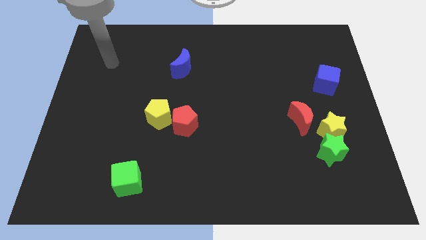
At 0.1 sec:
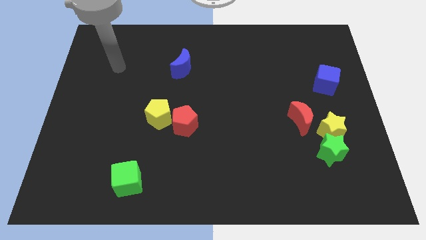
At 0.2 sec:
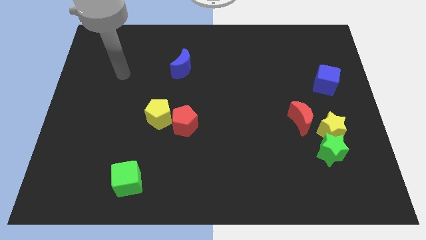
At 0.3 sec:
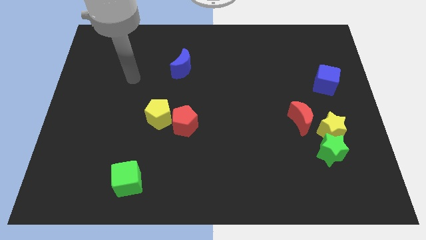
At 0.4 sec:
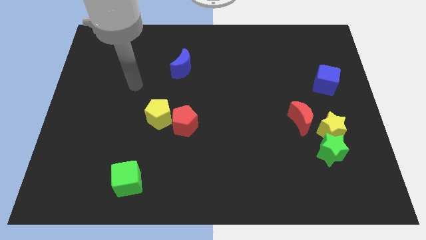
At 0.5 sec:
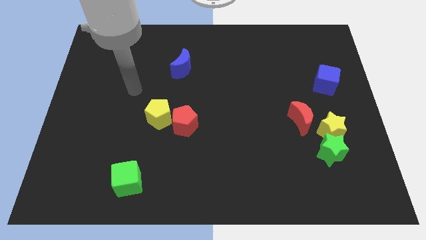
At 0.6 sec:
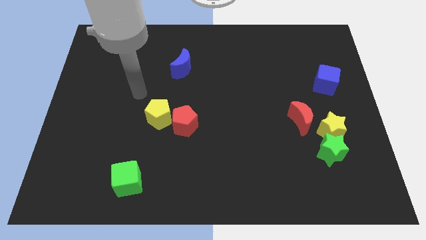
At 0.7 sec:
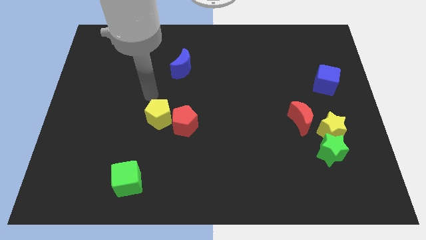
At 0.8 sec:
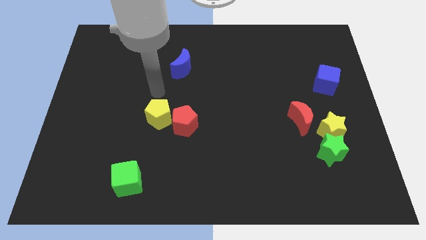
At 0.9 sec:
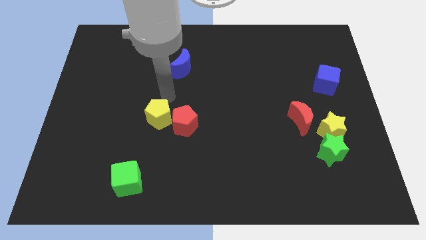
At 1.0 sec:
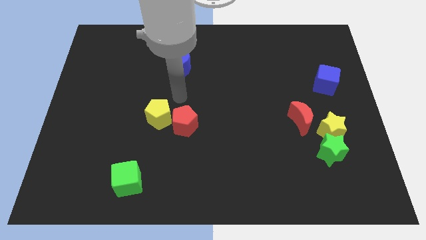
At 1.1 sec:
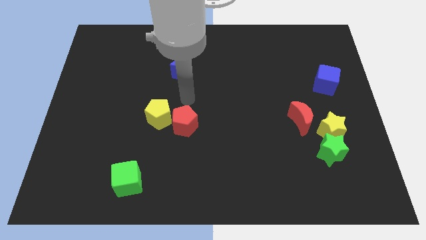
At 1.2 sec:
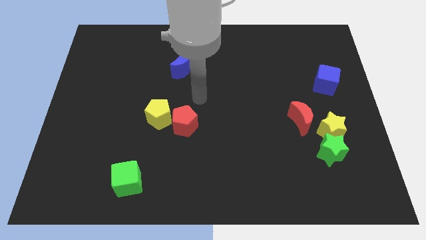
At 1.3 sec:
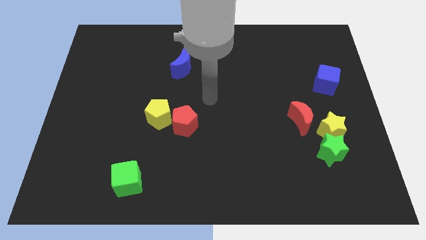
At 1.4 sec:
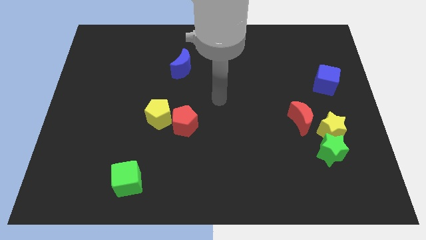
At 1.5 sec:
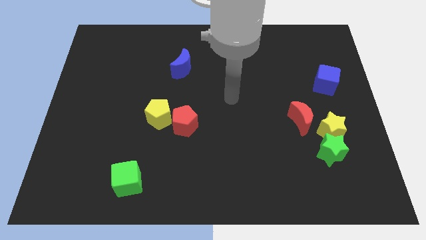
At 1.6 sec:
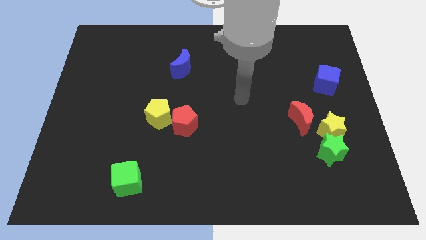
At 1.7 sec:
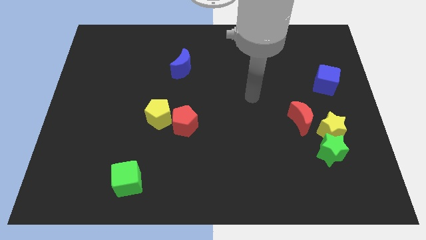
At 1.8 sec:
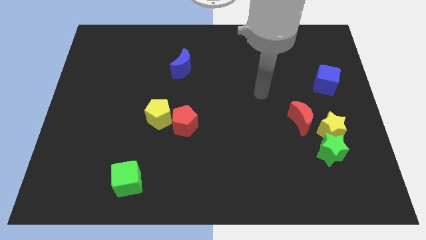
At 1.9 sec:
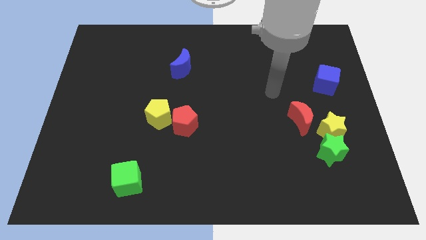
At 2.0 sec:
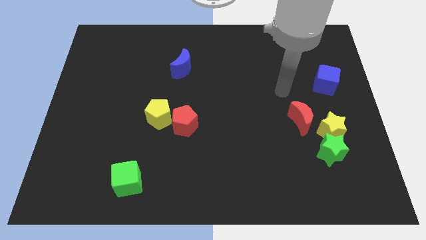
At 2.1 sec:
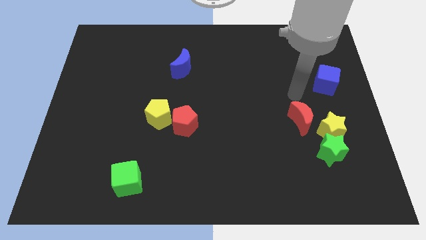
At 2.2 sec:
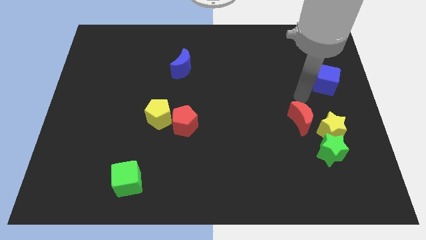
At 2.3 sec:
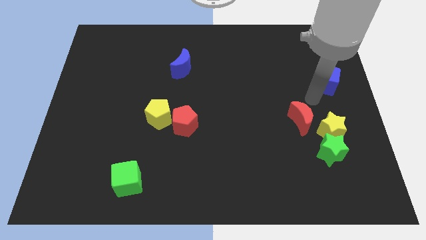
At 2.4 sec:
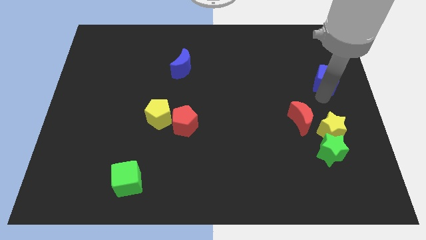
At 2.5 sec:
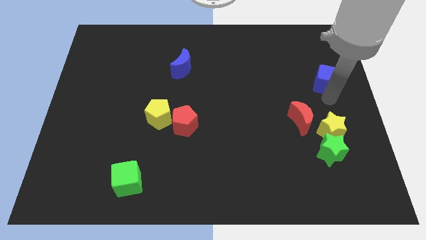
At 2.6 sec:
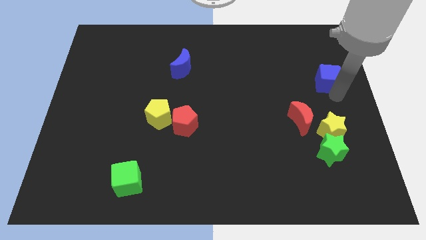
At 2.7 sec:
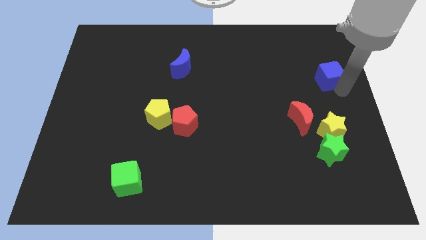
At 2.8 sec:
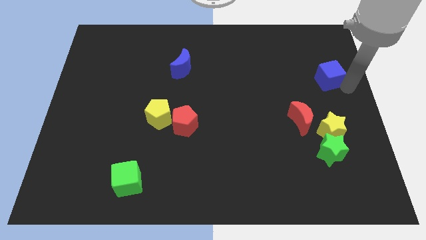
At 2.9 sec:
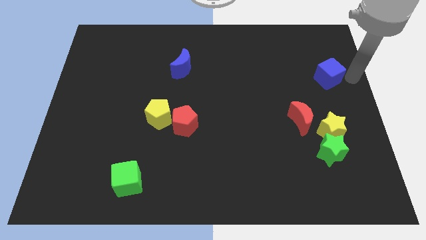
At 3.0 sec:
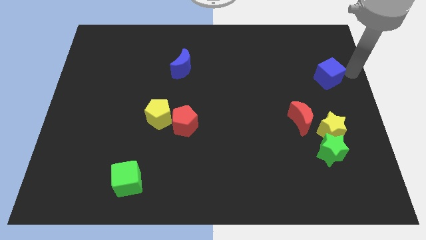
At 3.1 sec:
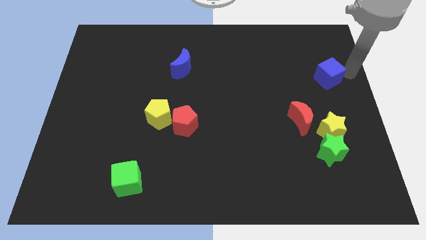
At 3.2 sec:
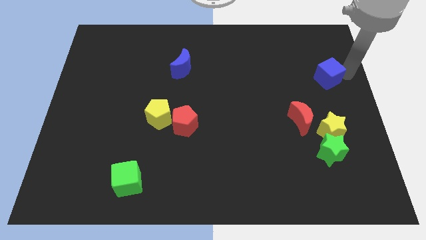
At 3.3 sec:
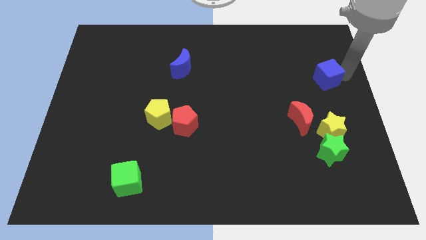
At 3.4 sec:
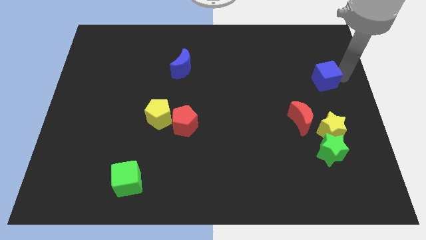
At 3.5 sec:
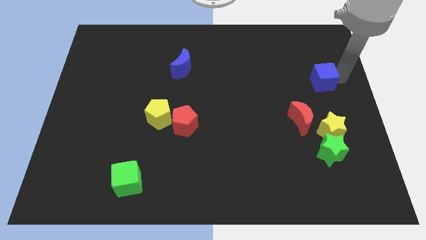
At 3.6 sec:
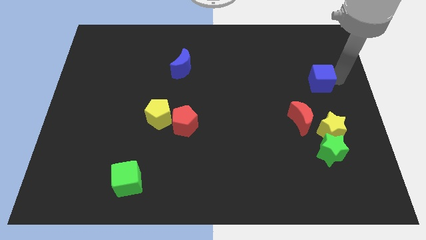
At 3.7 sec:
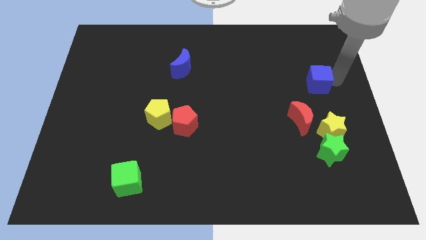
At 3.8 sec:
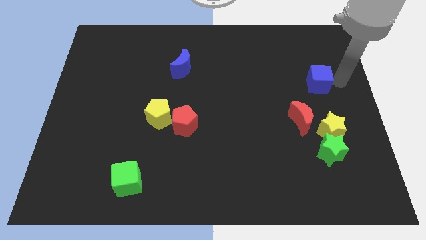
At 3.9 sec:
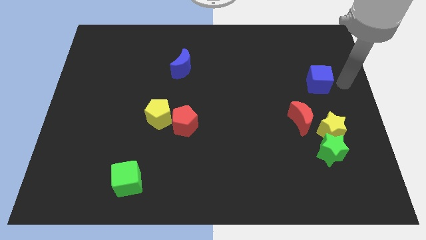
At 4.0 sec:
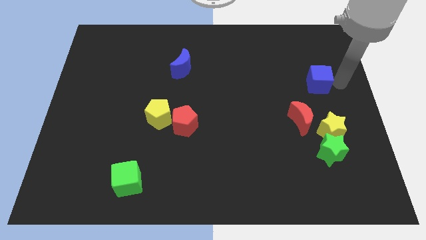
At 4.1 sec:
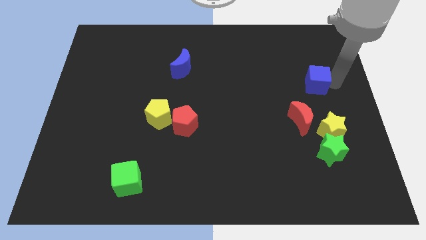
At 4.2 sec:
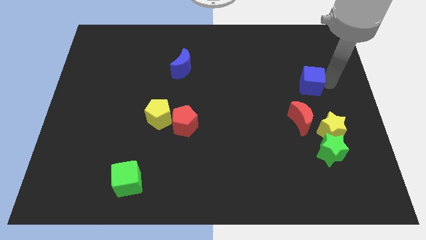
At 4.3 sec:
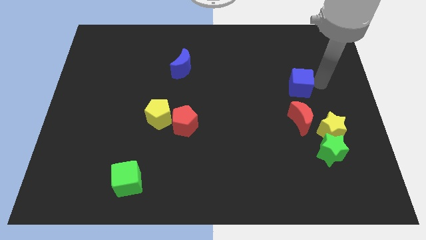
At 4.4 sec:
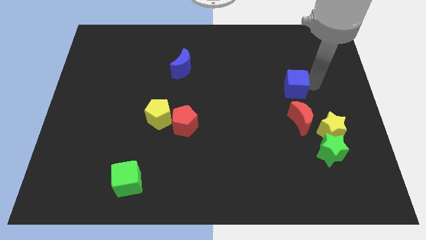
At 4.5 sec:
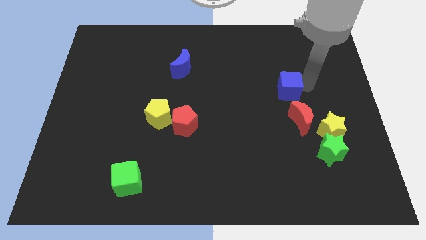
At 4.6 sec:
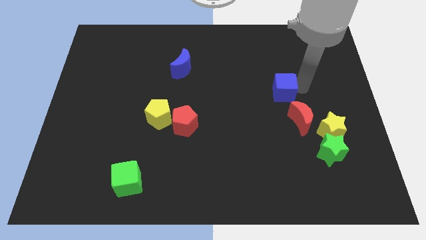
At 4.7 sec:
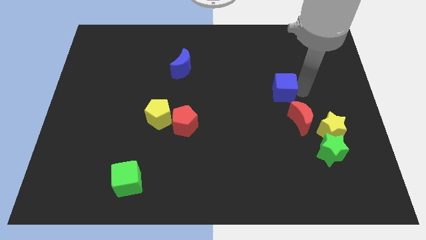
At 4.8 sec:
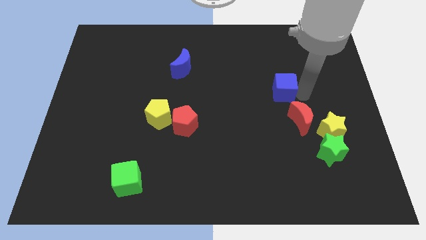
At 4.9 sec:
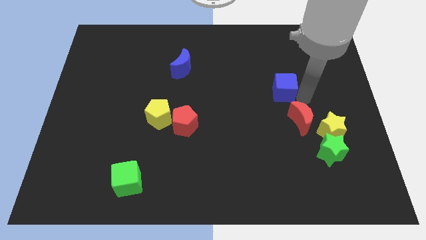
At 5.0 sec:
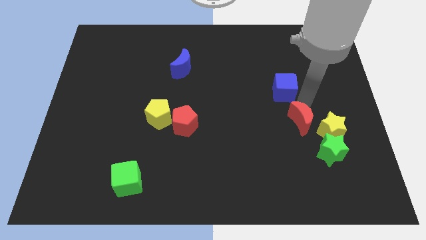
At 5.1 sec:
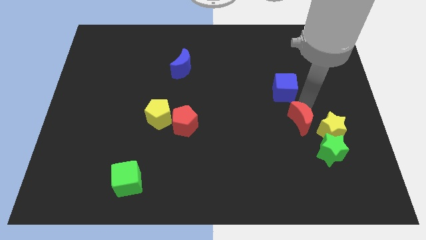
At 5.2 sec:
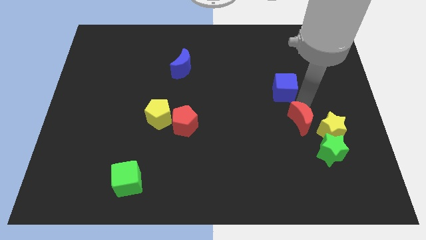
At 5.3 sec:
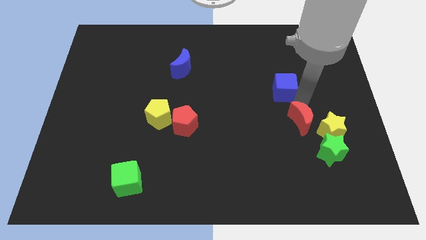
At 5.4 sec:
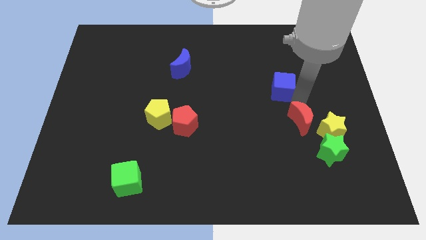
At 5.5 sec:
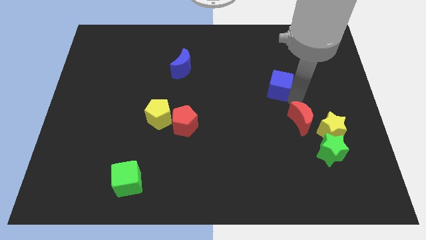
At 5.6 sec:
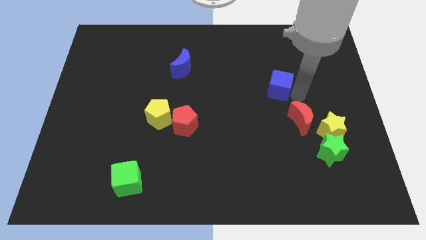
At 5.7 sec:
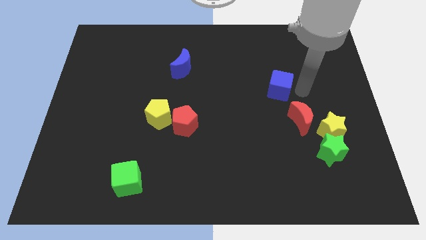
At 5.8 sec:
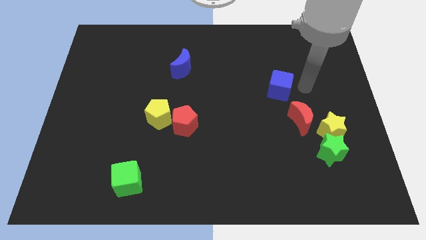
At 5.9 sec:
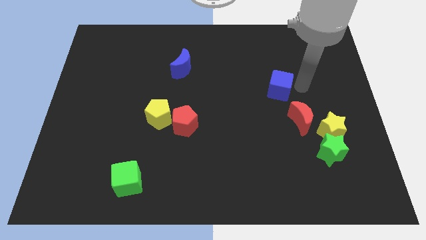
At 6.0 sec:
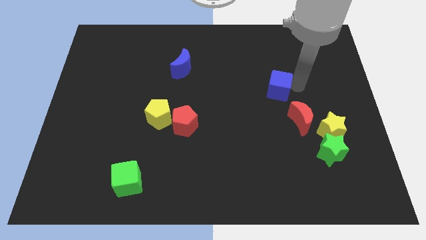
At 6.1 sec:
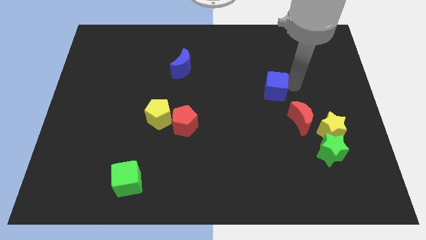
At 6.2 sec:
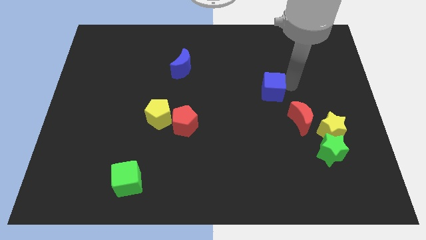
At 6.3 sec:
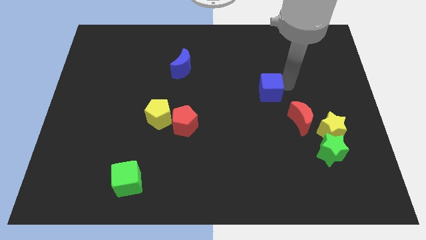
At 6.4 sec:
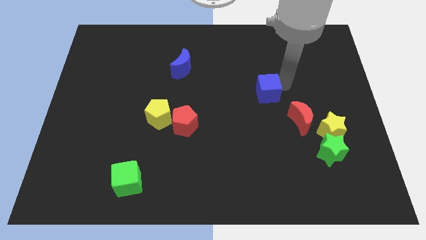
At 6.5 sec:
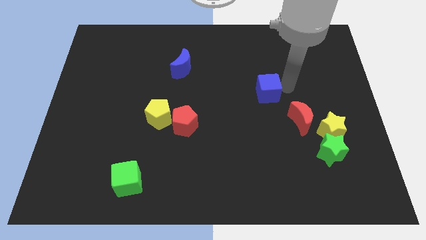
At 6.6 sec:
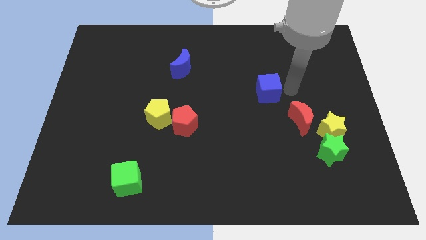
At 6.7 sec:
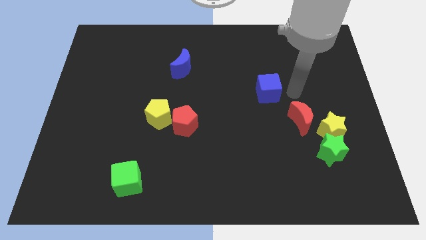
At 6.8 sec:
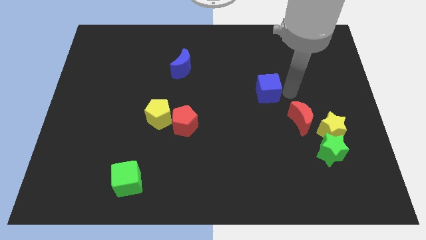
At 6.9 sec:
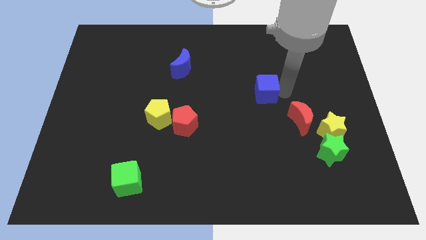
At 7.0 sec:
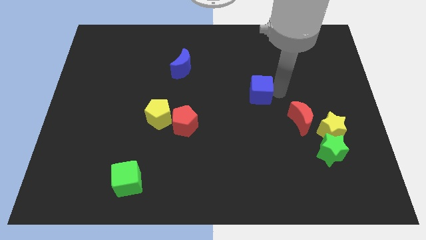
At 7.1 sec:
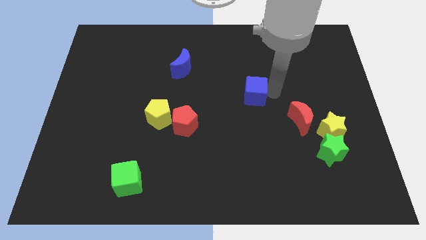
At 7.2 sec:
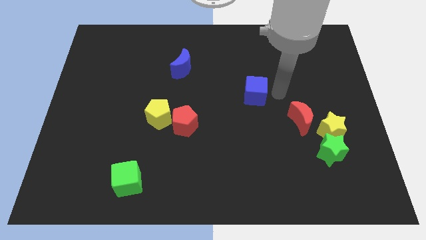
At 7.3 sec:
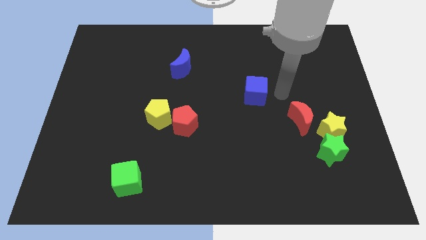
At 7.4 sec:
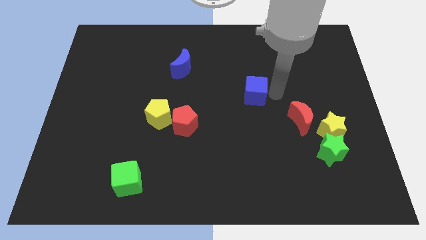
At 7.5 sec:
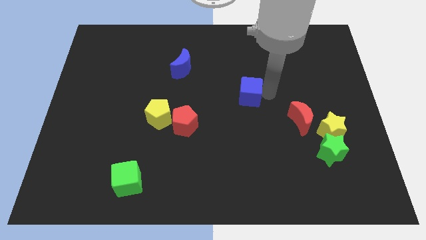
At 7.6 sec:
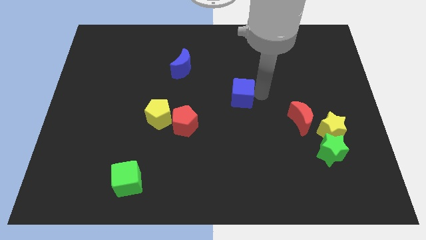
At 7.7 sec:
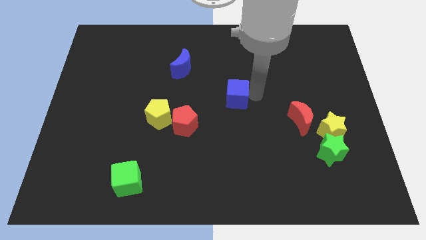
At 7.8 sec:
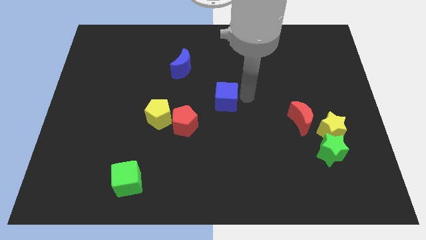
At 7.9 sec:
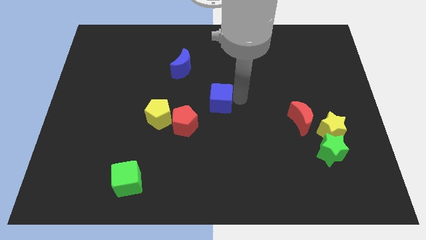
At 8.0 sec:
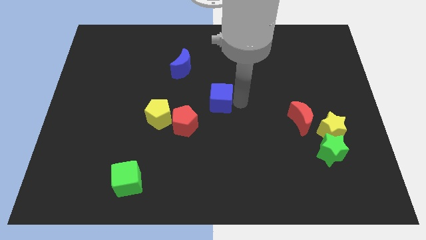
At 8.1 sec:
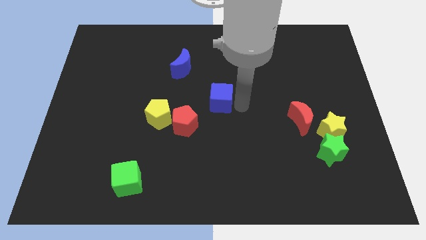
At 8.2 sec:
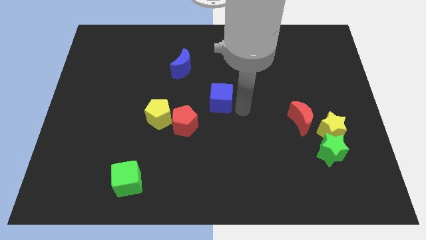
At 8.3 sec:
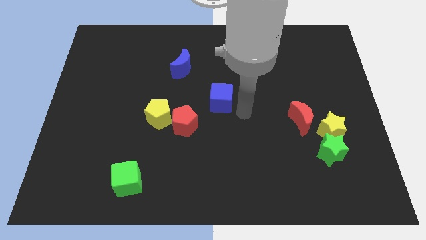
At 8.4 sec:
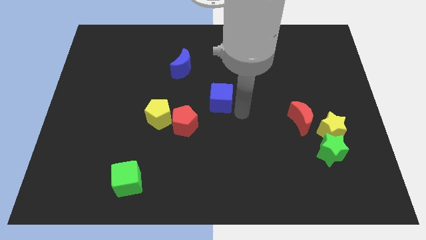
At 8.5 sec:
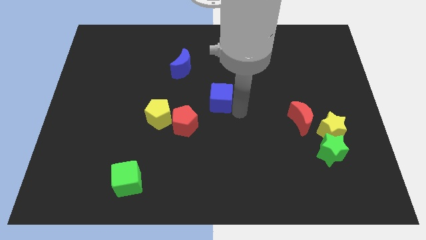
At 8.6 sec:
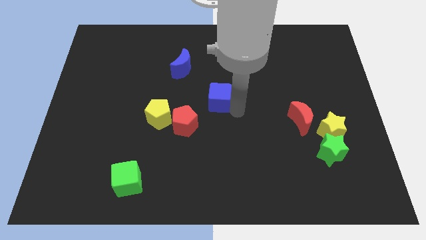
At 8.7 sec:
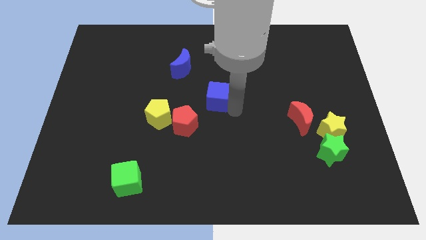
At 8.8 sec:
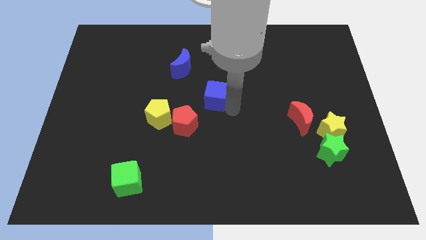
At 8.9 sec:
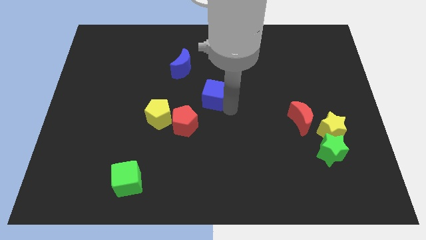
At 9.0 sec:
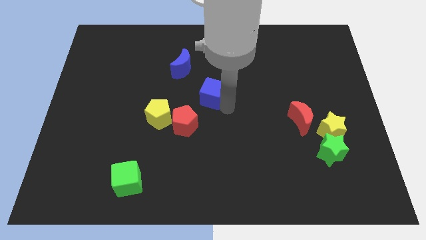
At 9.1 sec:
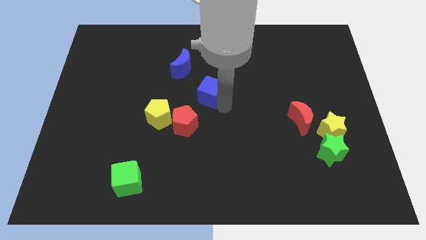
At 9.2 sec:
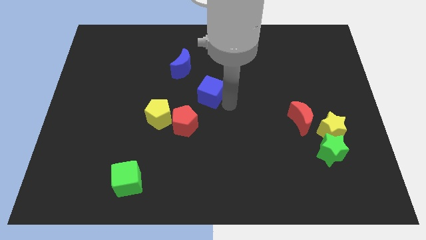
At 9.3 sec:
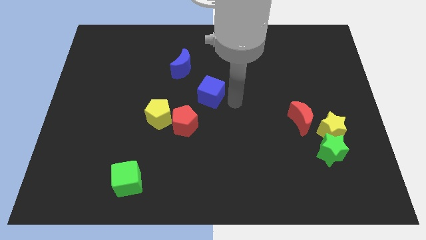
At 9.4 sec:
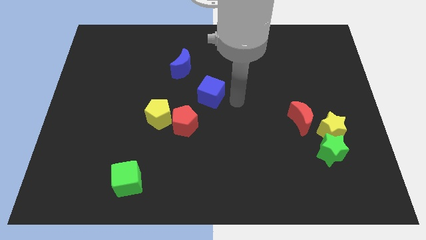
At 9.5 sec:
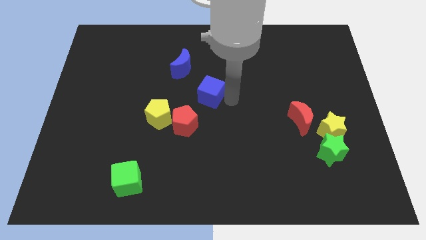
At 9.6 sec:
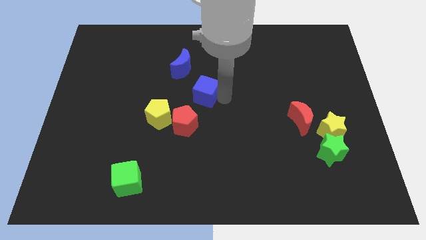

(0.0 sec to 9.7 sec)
slide the blue cube to the top of the red pentagon
